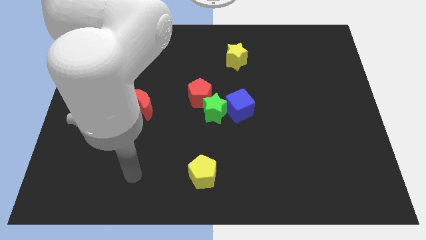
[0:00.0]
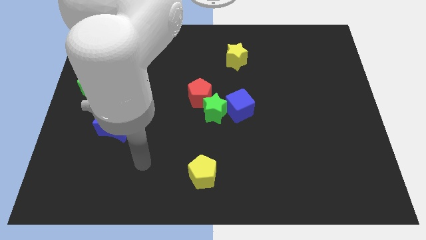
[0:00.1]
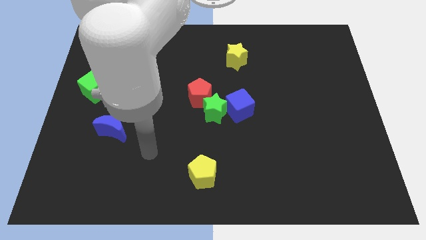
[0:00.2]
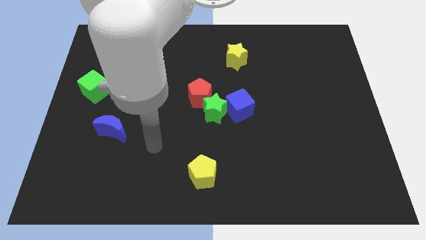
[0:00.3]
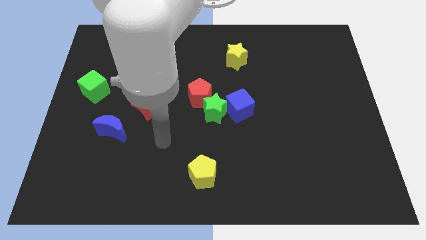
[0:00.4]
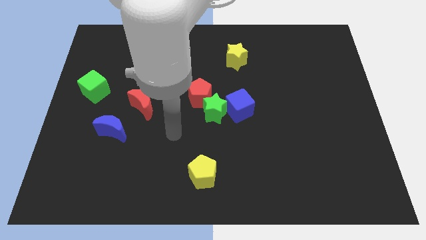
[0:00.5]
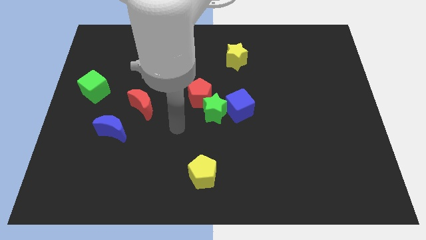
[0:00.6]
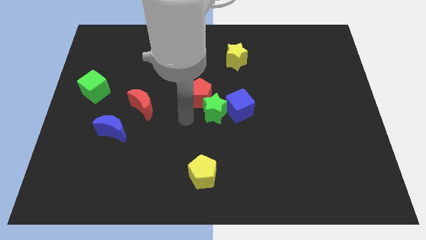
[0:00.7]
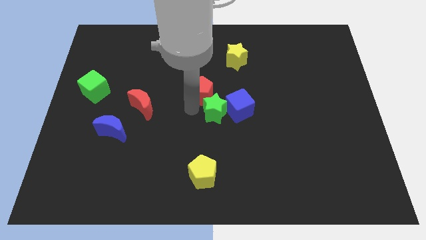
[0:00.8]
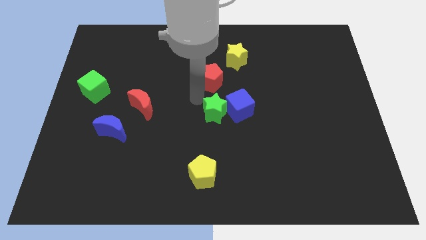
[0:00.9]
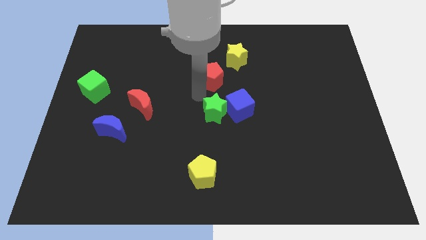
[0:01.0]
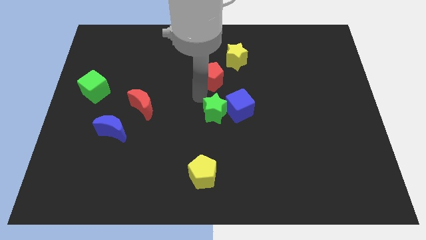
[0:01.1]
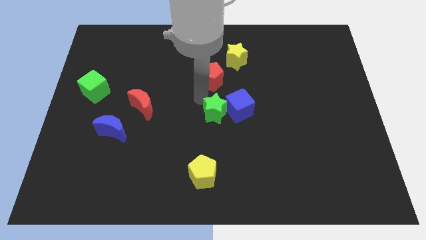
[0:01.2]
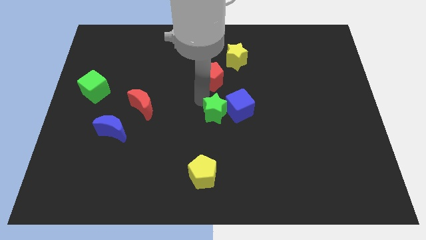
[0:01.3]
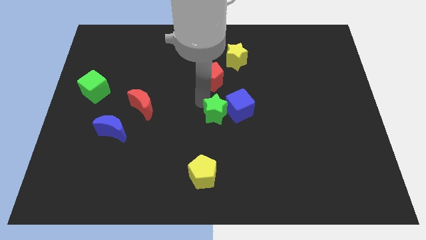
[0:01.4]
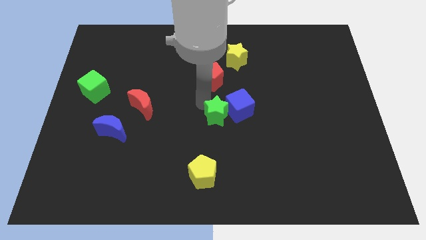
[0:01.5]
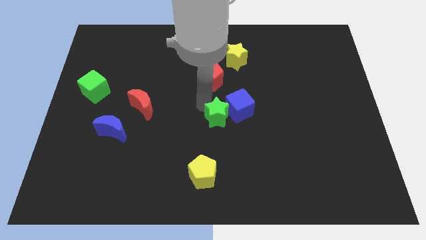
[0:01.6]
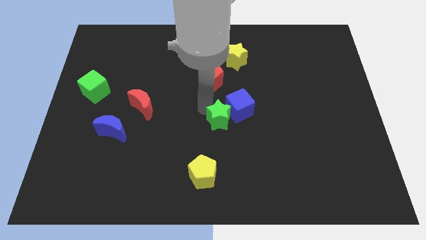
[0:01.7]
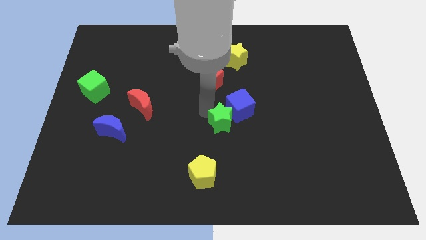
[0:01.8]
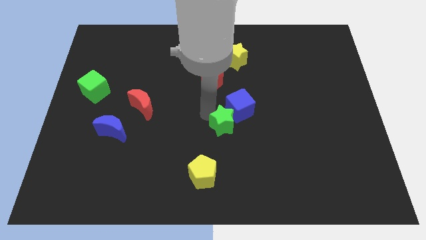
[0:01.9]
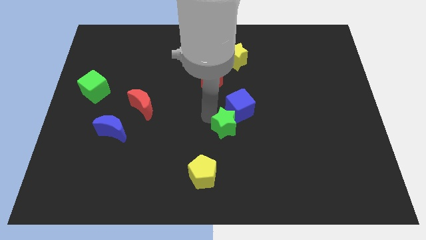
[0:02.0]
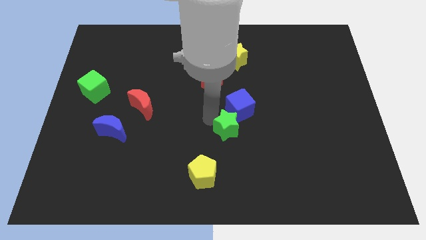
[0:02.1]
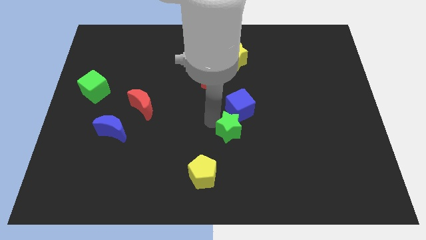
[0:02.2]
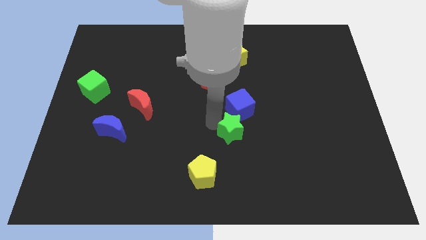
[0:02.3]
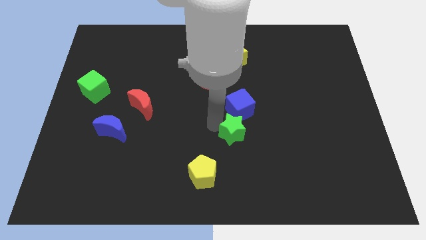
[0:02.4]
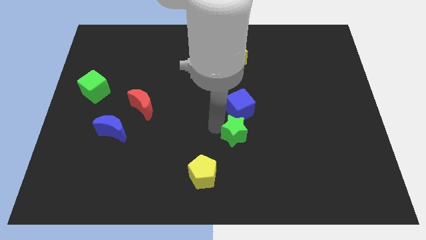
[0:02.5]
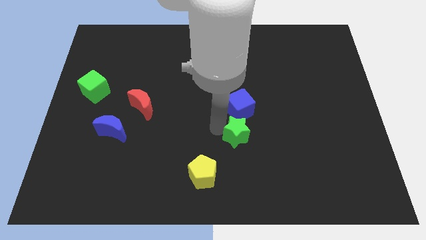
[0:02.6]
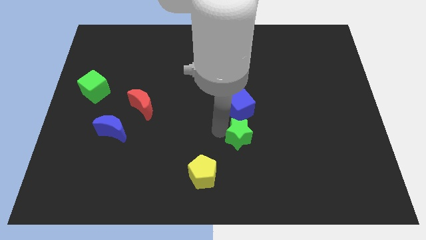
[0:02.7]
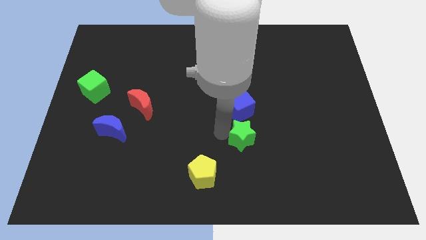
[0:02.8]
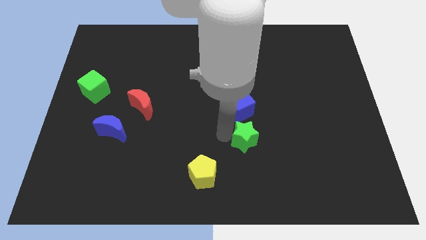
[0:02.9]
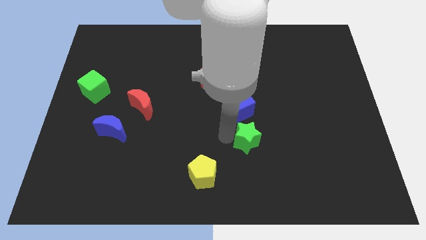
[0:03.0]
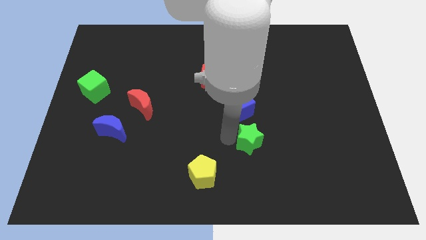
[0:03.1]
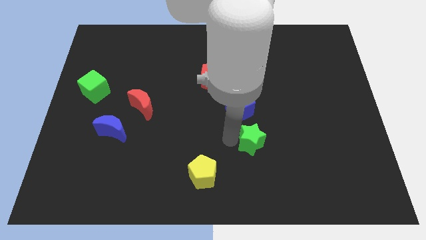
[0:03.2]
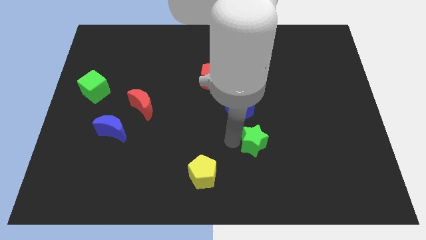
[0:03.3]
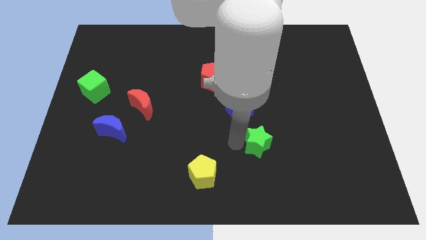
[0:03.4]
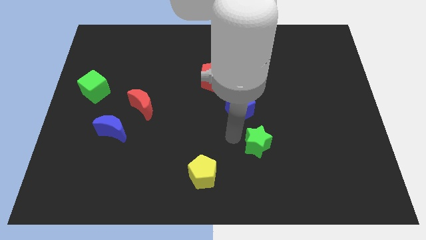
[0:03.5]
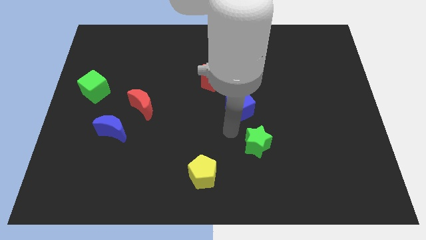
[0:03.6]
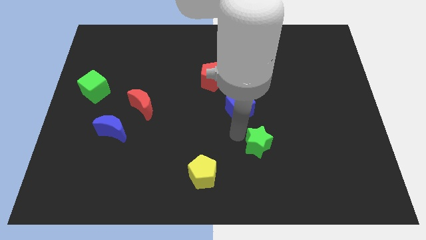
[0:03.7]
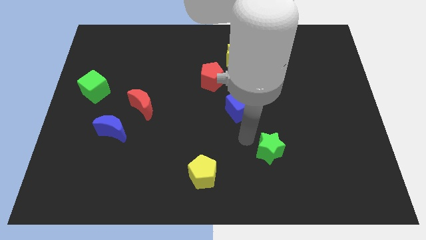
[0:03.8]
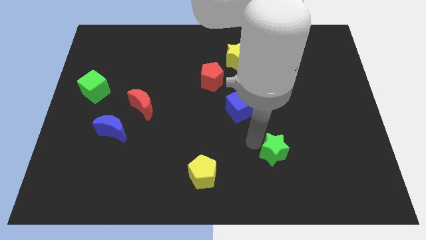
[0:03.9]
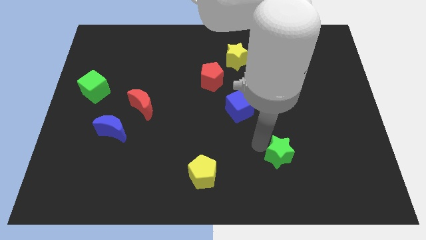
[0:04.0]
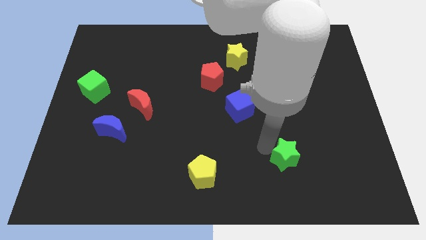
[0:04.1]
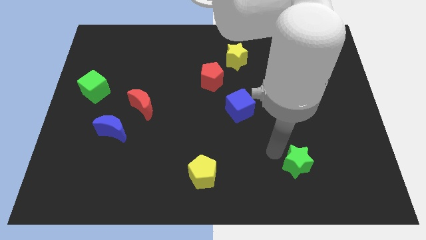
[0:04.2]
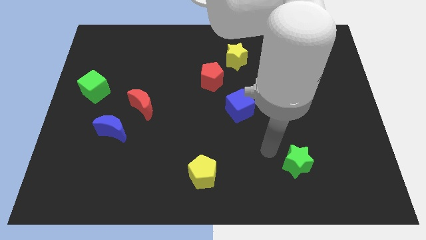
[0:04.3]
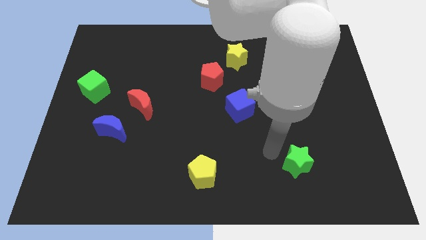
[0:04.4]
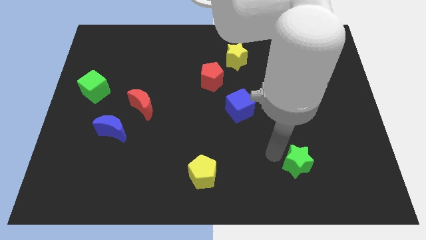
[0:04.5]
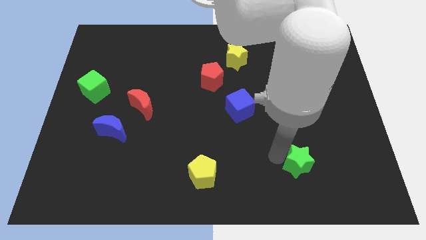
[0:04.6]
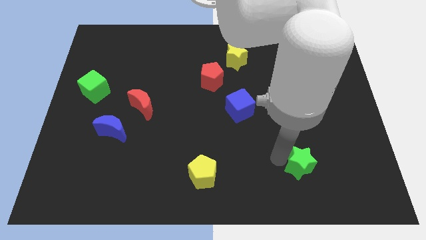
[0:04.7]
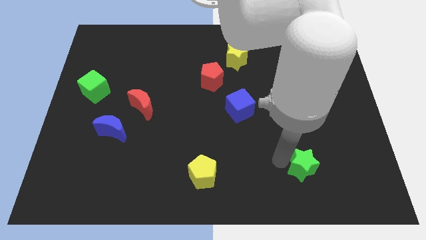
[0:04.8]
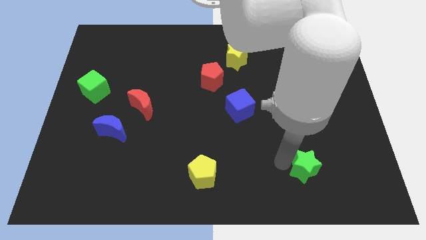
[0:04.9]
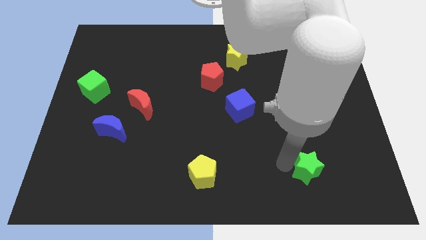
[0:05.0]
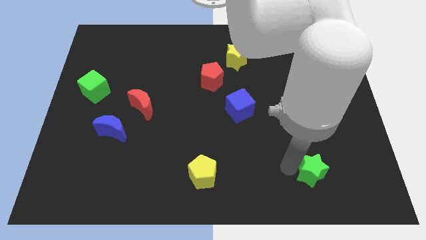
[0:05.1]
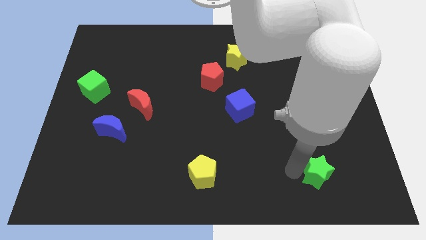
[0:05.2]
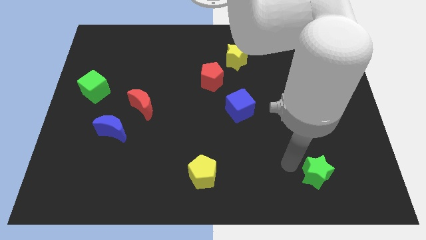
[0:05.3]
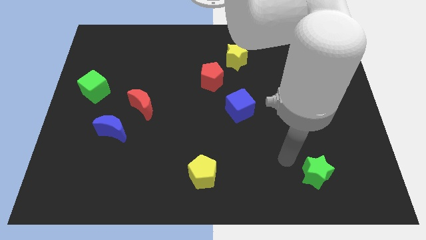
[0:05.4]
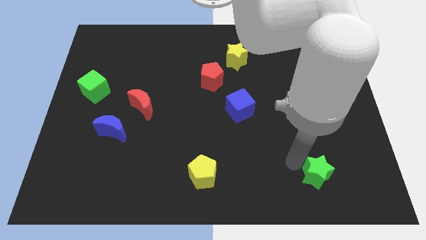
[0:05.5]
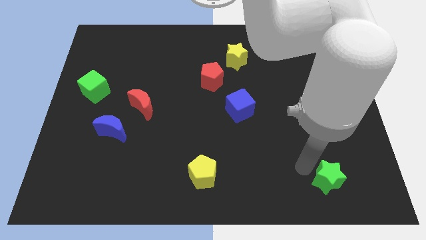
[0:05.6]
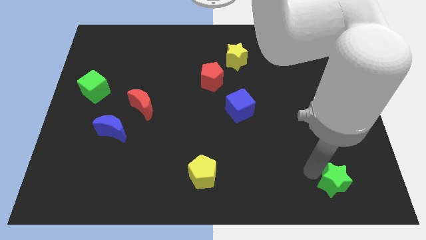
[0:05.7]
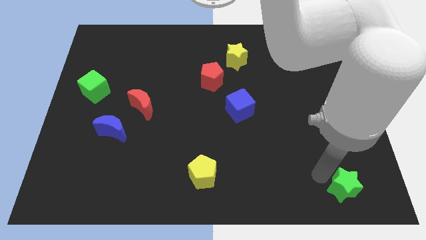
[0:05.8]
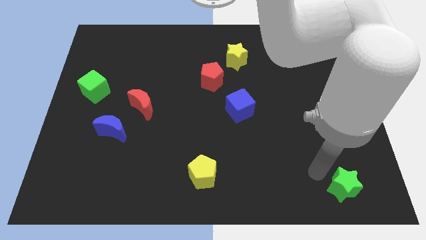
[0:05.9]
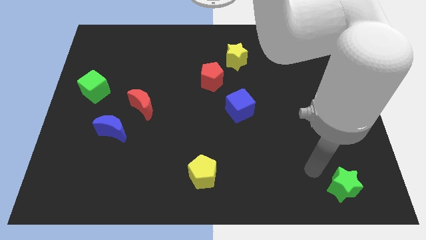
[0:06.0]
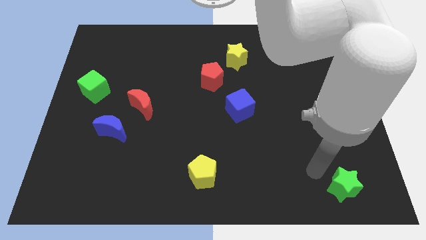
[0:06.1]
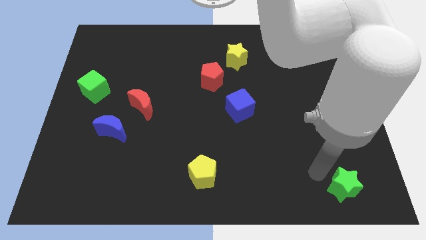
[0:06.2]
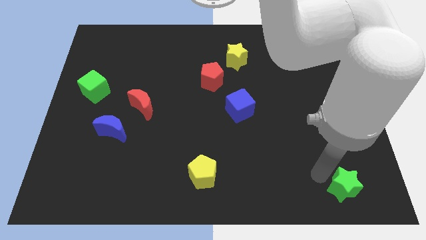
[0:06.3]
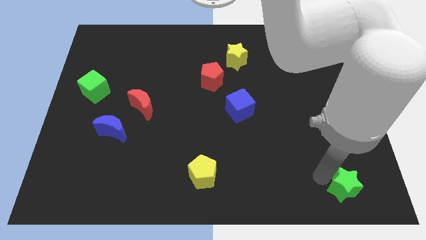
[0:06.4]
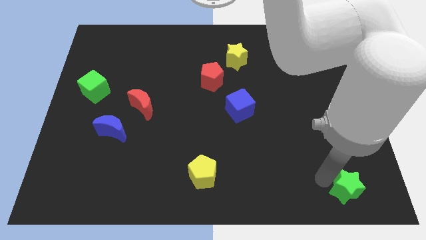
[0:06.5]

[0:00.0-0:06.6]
put the green star to the bottom right of the board
